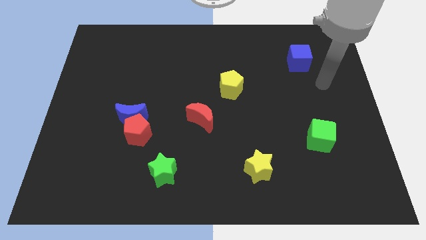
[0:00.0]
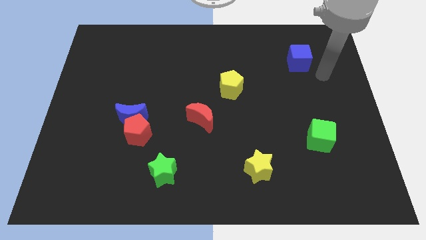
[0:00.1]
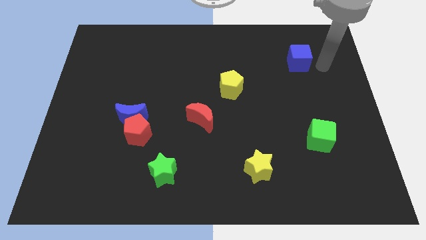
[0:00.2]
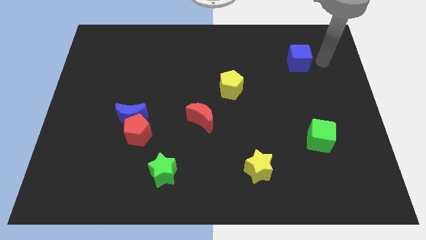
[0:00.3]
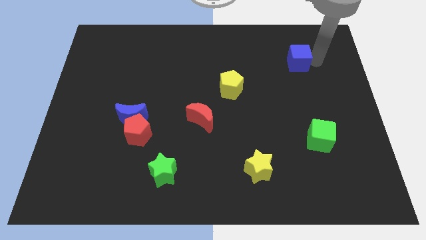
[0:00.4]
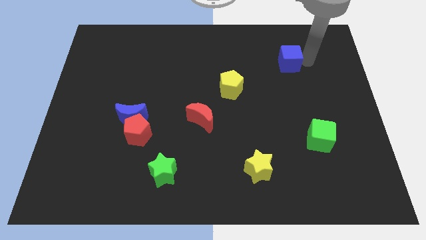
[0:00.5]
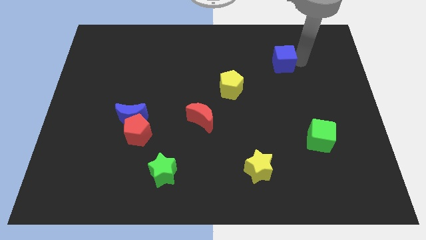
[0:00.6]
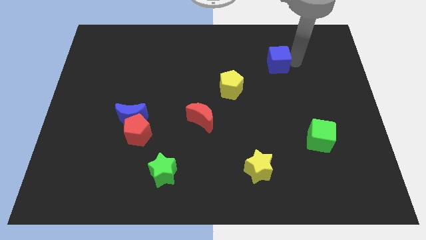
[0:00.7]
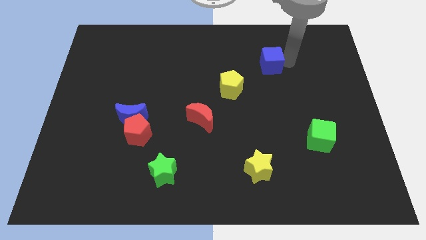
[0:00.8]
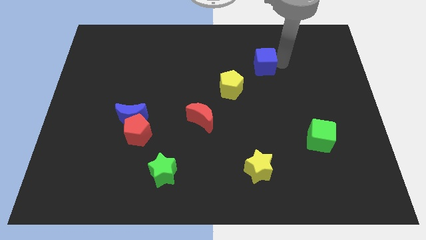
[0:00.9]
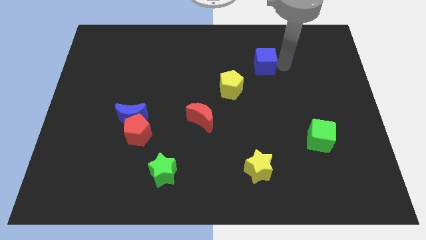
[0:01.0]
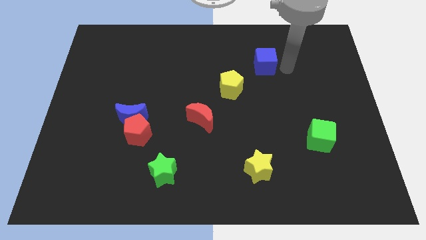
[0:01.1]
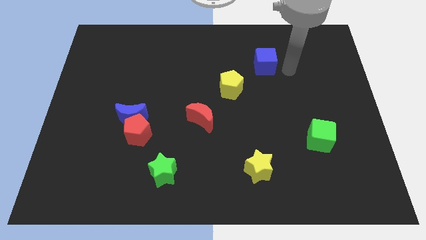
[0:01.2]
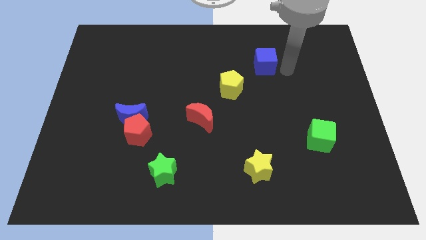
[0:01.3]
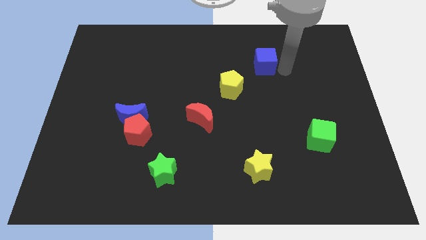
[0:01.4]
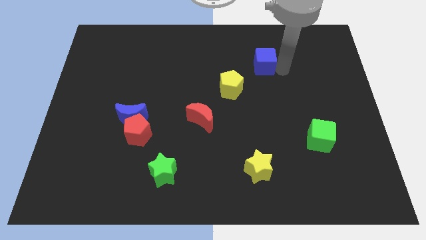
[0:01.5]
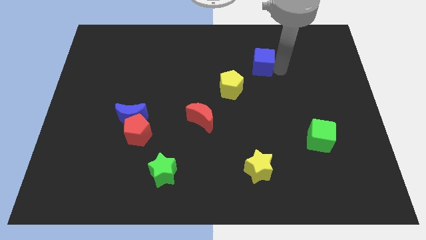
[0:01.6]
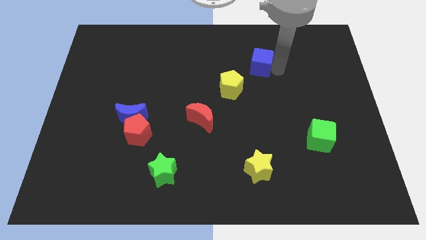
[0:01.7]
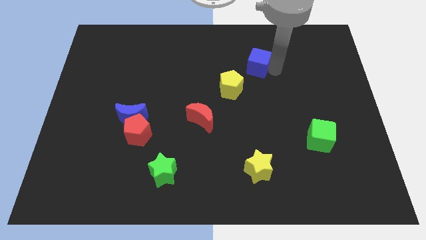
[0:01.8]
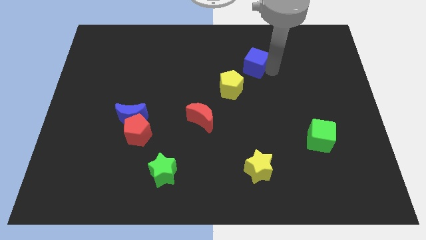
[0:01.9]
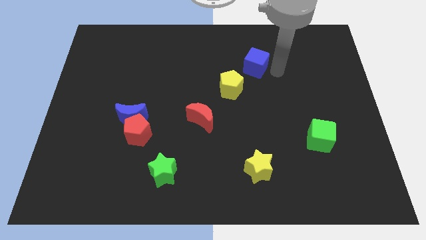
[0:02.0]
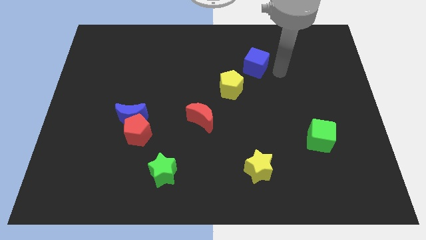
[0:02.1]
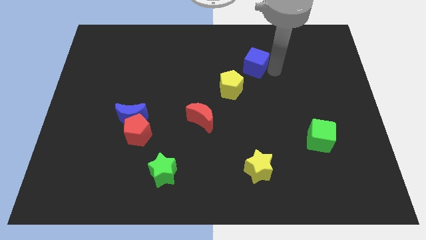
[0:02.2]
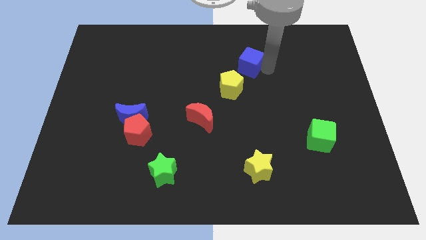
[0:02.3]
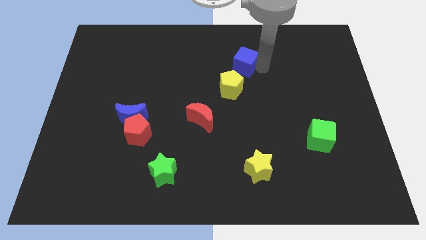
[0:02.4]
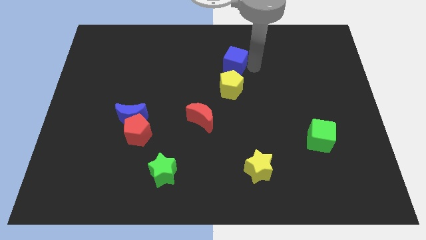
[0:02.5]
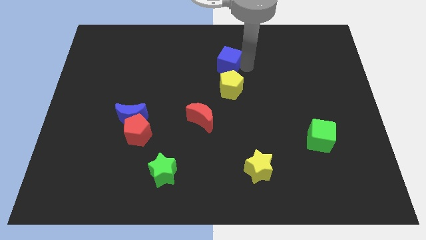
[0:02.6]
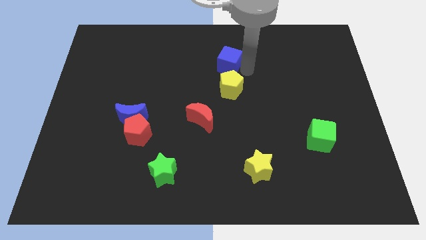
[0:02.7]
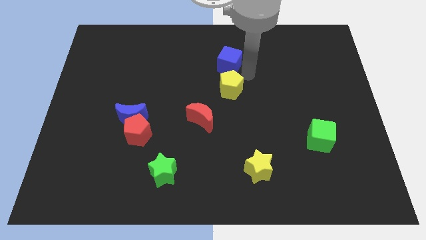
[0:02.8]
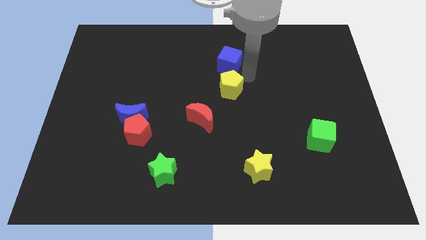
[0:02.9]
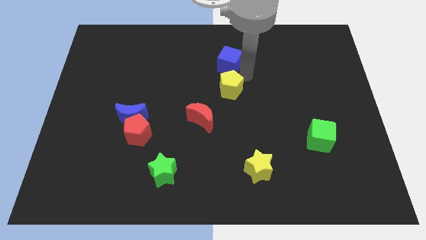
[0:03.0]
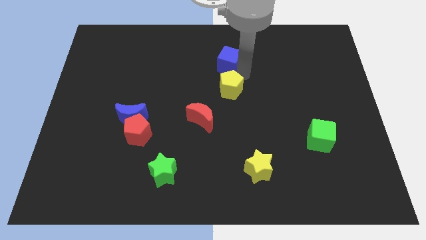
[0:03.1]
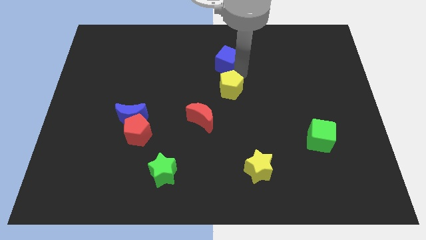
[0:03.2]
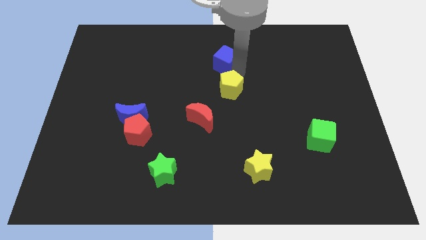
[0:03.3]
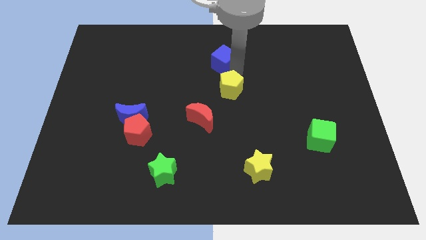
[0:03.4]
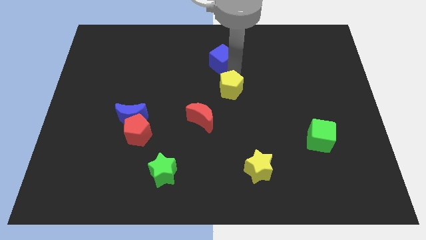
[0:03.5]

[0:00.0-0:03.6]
move the blue cube to the left

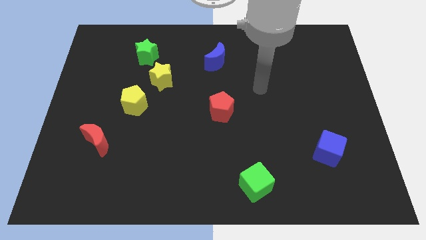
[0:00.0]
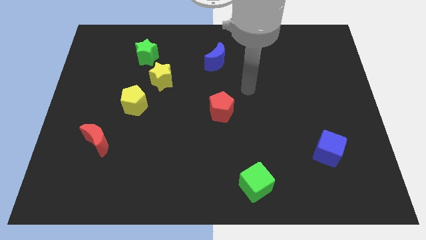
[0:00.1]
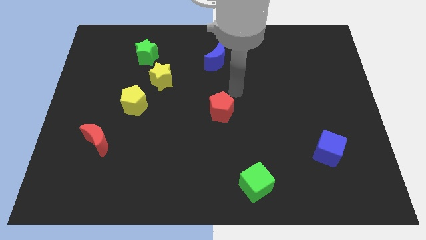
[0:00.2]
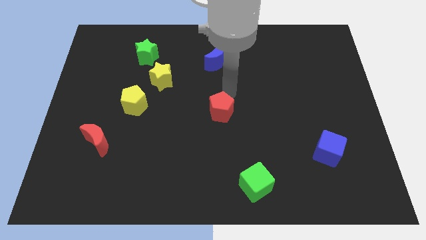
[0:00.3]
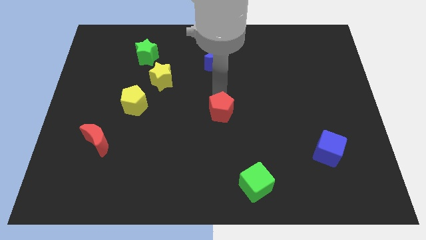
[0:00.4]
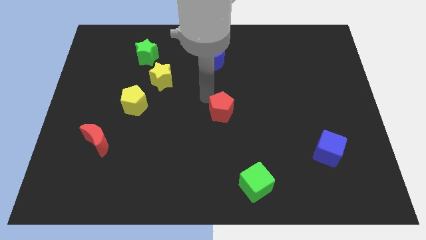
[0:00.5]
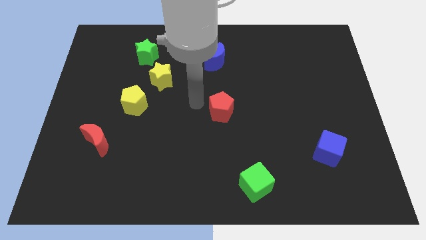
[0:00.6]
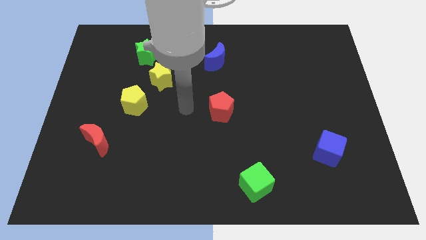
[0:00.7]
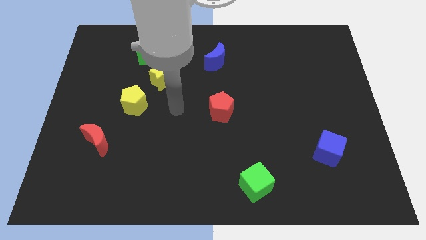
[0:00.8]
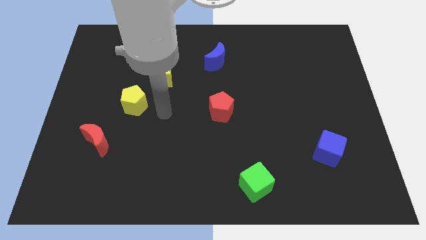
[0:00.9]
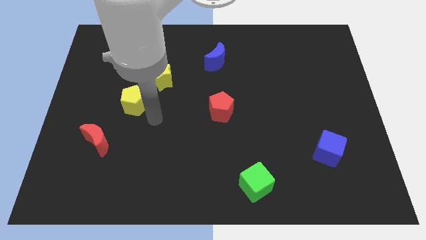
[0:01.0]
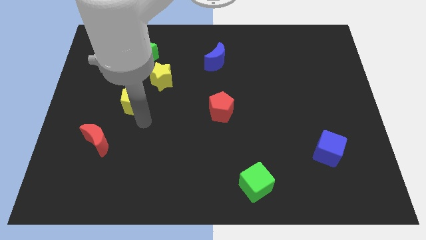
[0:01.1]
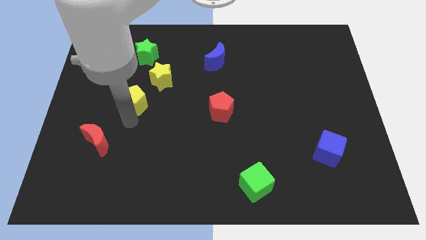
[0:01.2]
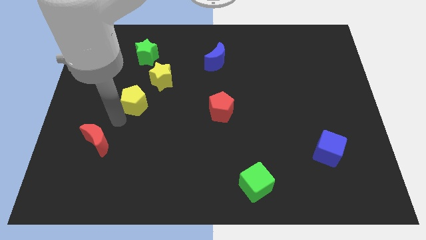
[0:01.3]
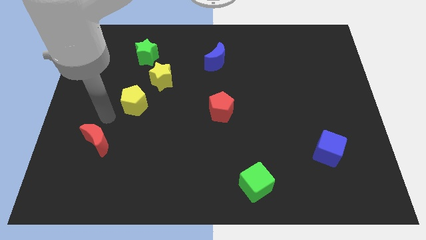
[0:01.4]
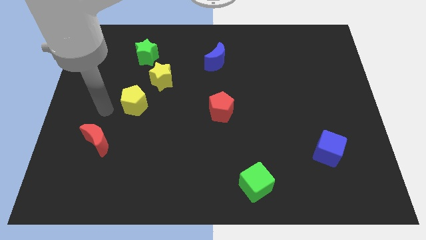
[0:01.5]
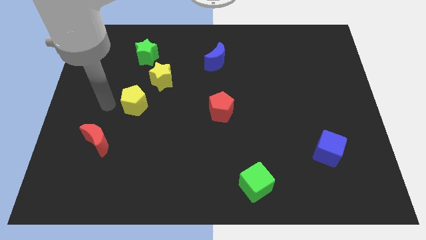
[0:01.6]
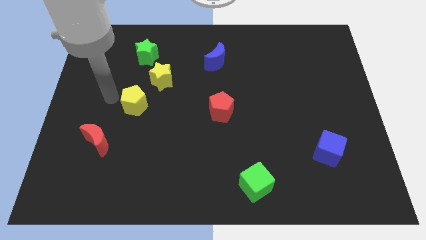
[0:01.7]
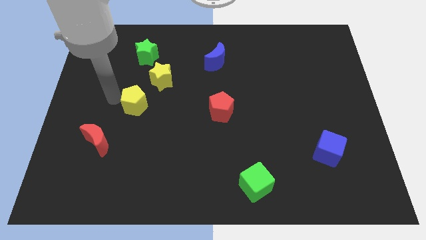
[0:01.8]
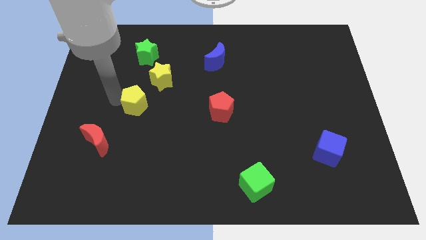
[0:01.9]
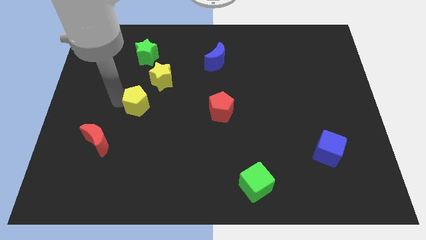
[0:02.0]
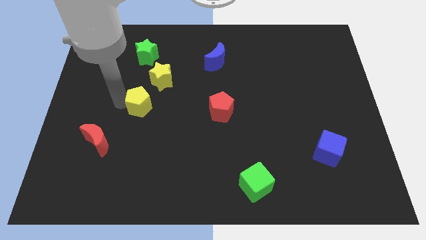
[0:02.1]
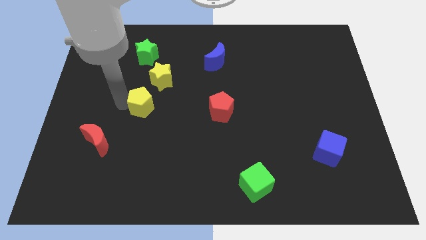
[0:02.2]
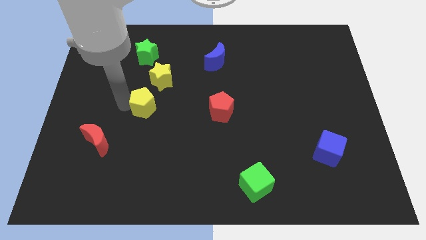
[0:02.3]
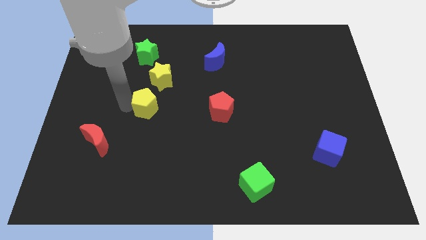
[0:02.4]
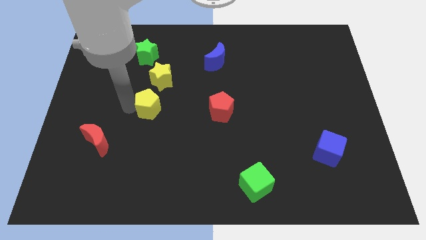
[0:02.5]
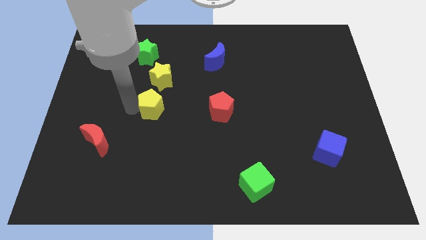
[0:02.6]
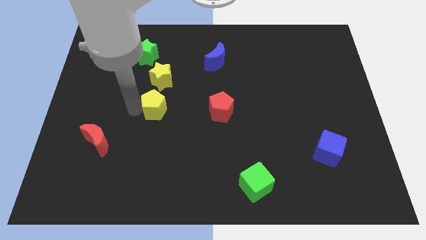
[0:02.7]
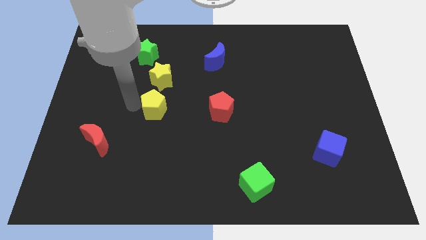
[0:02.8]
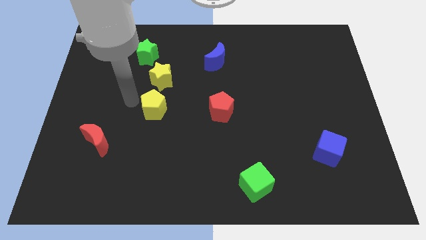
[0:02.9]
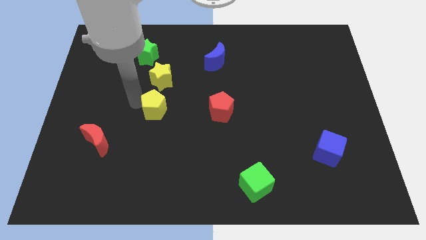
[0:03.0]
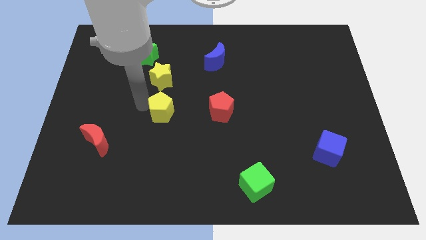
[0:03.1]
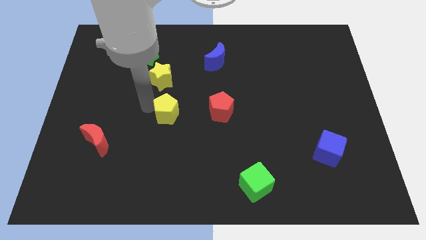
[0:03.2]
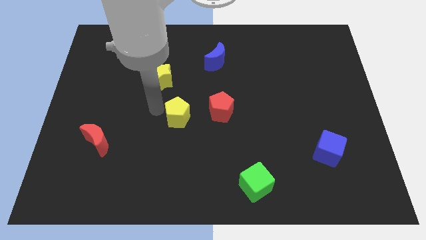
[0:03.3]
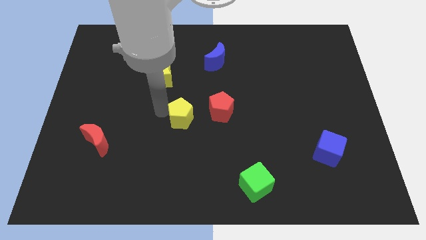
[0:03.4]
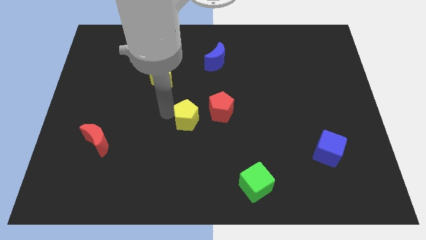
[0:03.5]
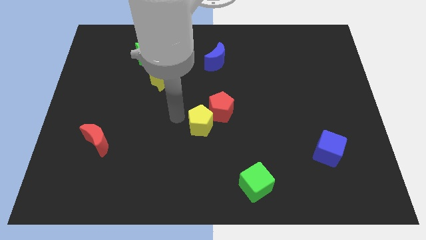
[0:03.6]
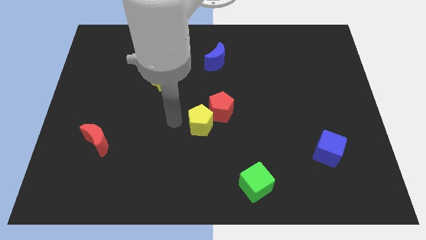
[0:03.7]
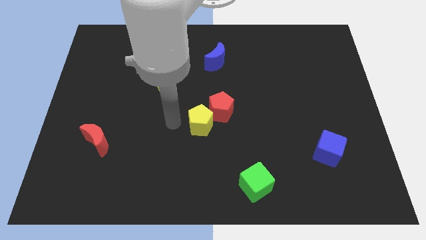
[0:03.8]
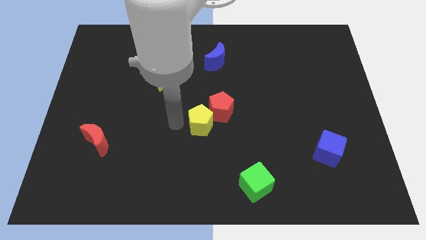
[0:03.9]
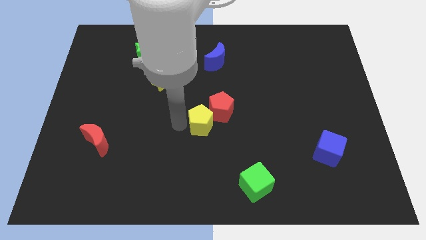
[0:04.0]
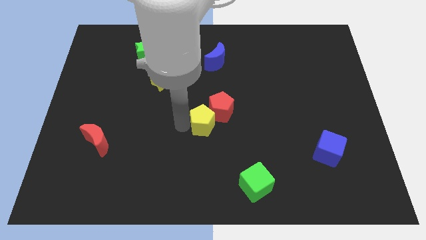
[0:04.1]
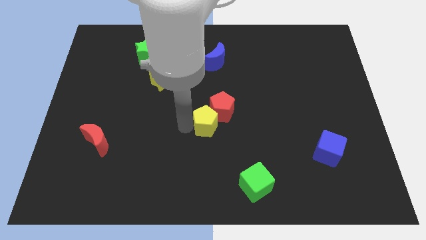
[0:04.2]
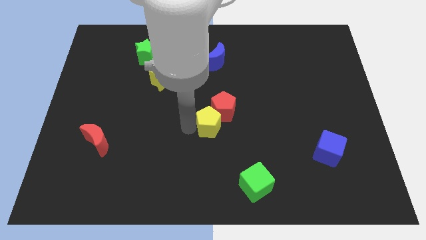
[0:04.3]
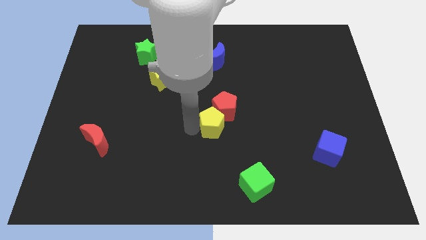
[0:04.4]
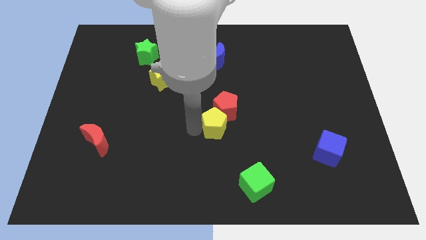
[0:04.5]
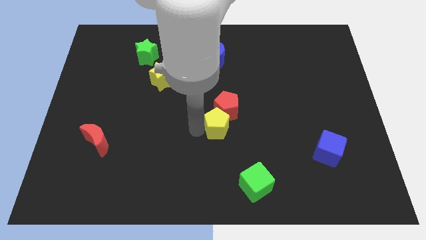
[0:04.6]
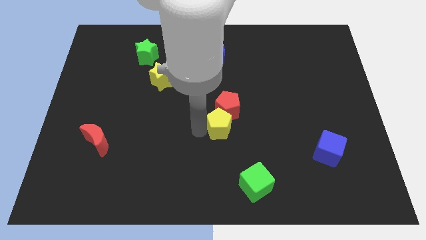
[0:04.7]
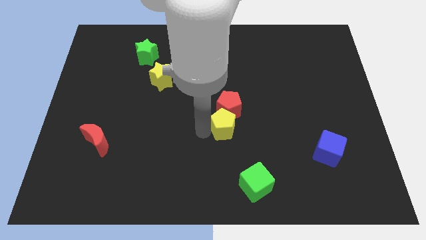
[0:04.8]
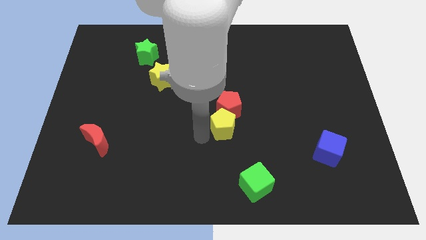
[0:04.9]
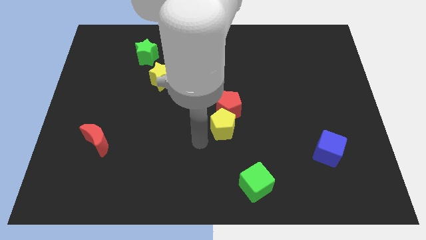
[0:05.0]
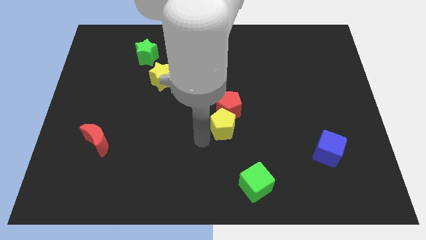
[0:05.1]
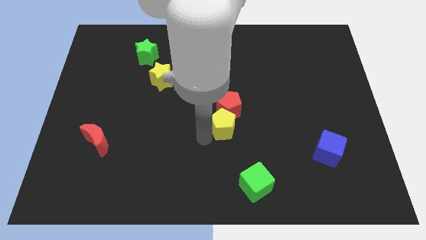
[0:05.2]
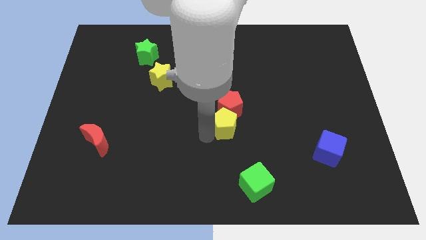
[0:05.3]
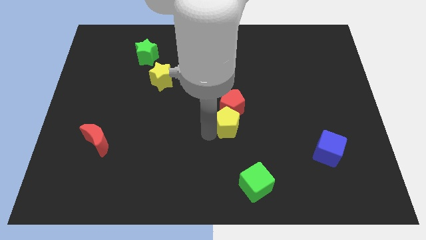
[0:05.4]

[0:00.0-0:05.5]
move the yellow pentagon right
